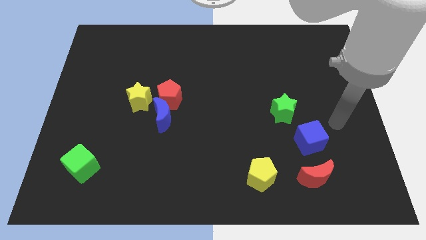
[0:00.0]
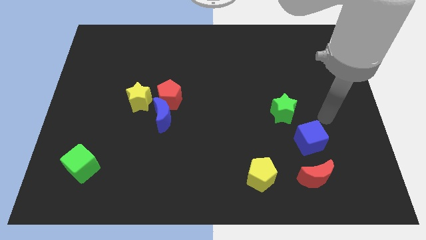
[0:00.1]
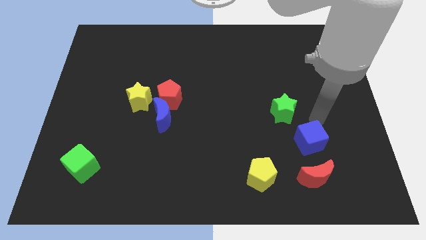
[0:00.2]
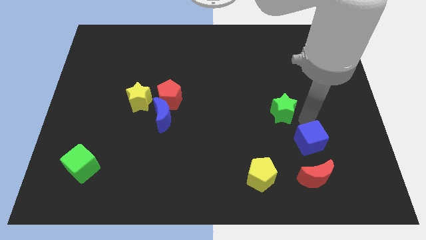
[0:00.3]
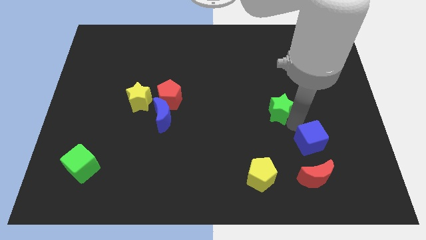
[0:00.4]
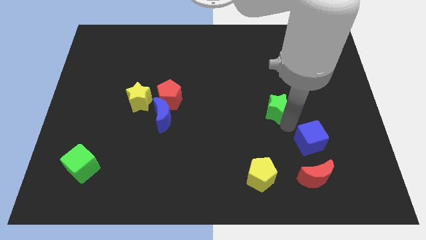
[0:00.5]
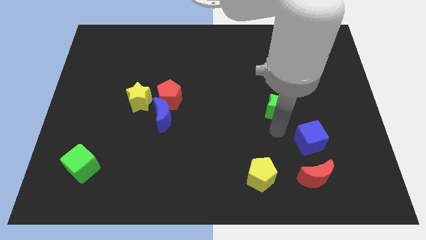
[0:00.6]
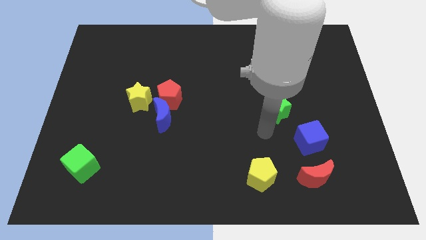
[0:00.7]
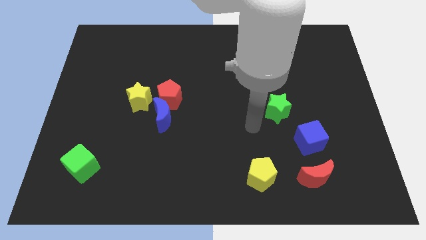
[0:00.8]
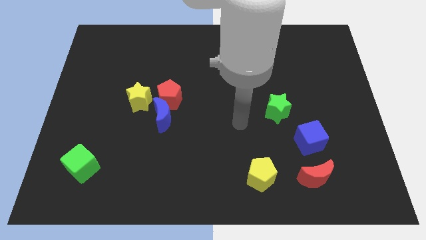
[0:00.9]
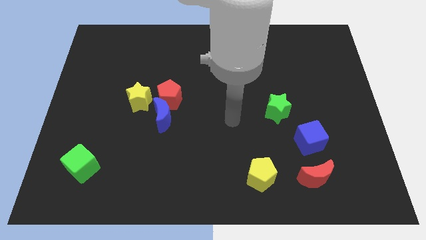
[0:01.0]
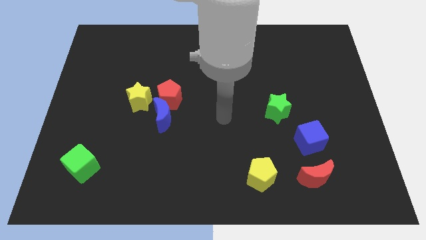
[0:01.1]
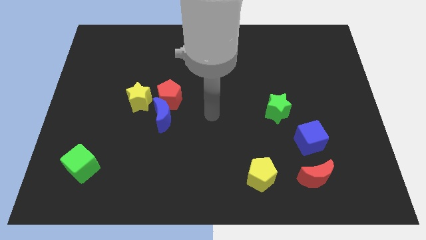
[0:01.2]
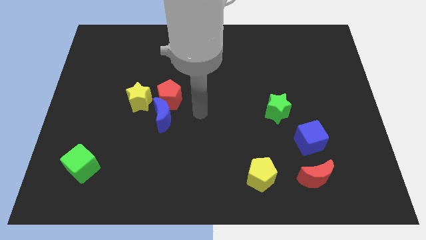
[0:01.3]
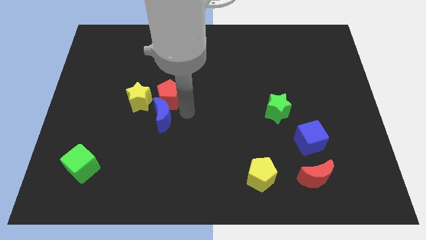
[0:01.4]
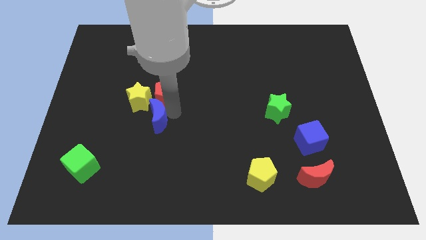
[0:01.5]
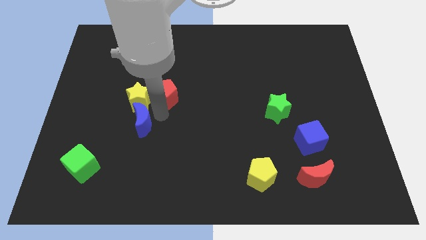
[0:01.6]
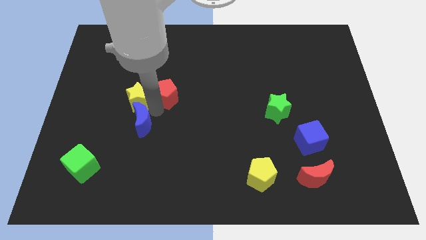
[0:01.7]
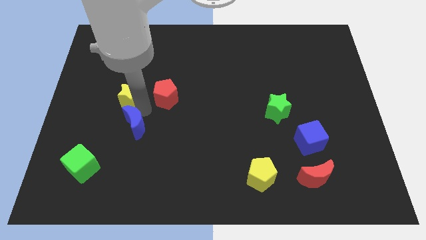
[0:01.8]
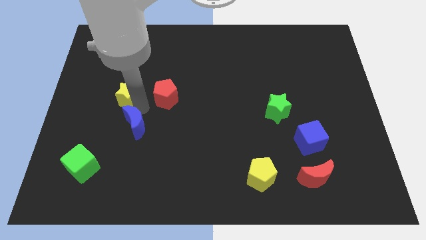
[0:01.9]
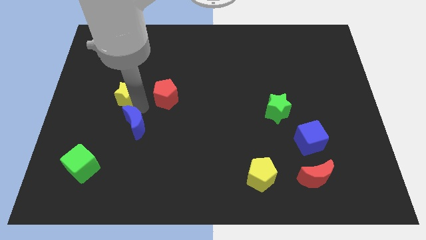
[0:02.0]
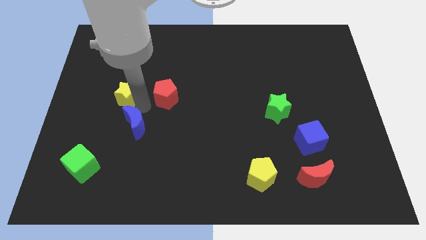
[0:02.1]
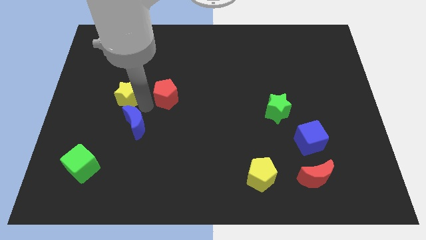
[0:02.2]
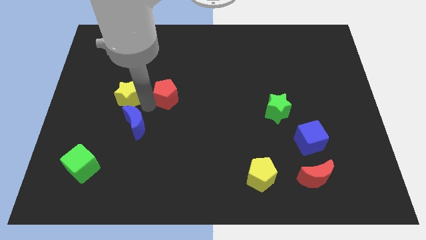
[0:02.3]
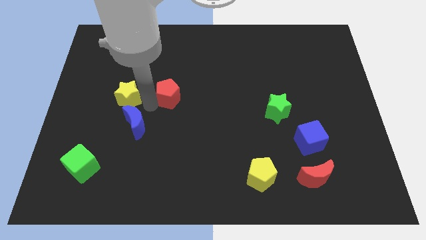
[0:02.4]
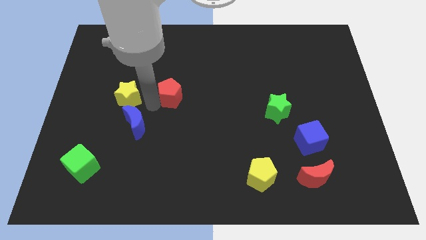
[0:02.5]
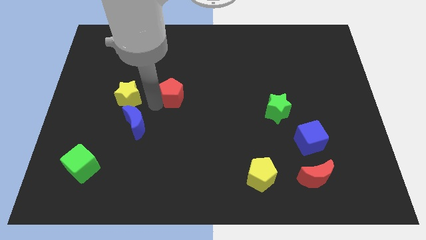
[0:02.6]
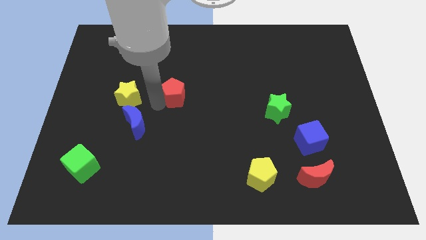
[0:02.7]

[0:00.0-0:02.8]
move the red pentagon away from the blue moon and yellow star

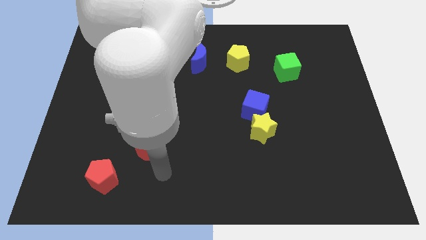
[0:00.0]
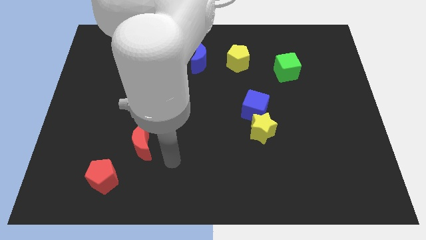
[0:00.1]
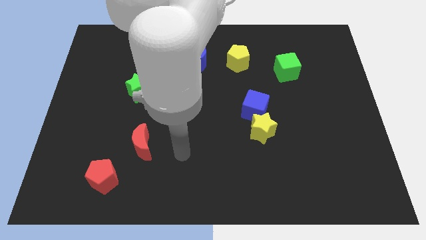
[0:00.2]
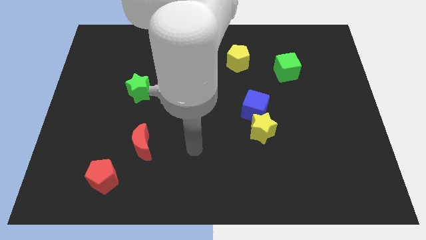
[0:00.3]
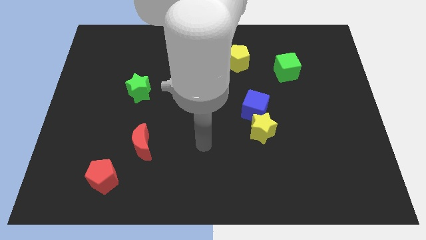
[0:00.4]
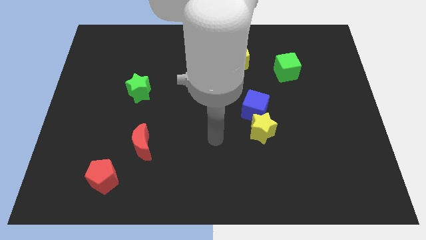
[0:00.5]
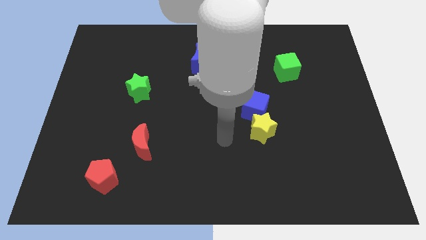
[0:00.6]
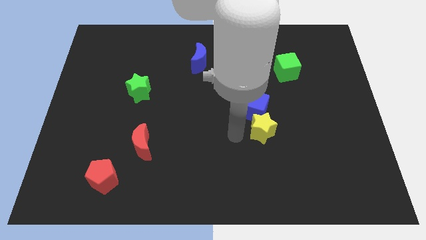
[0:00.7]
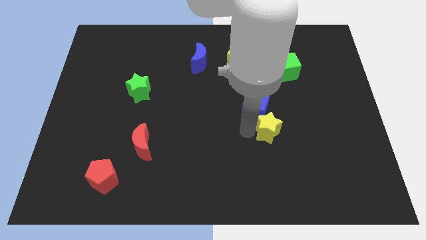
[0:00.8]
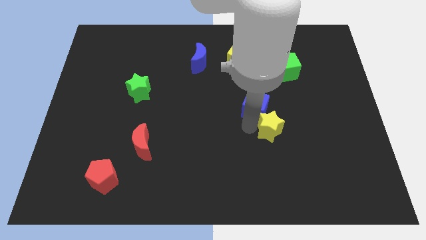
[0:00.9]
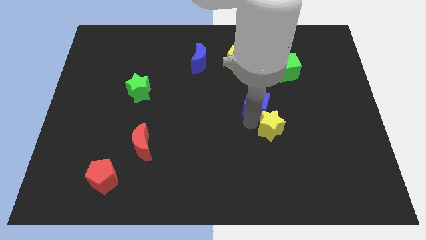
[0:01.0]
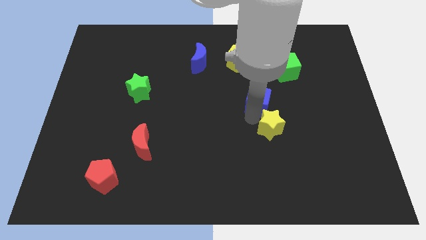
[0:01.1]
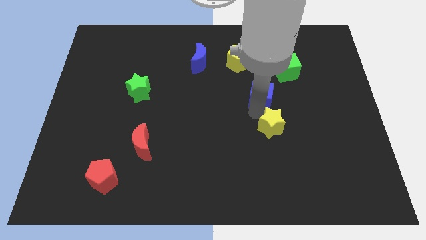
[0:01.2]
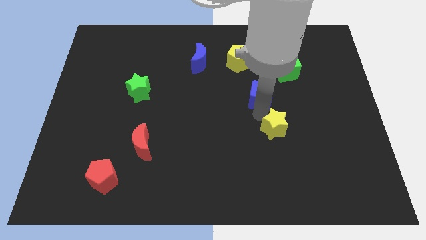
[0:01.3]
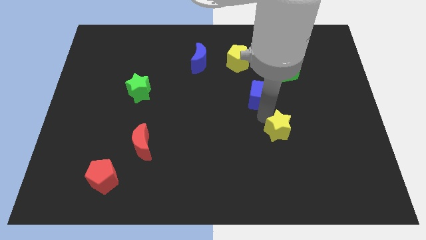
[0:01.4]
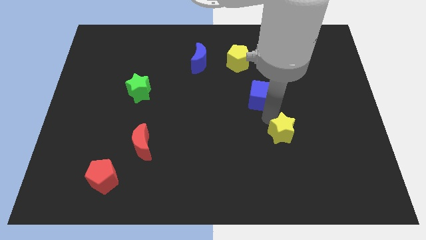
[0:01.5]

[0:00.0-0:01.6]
move the blue cube away from the yellow star

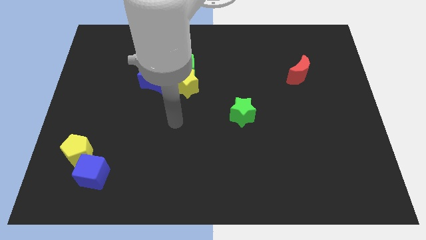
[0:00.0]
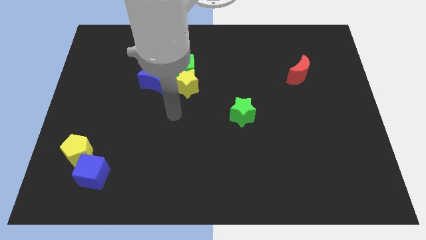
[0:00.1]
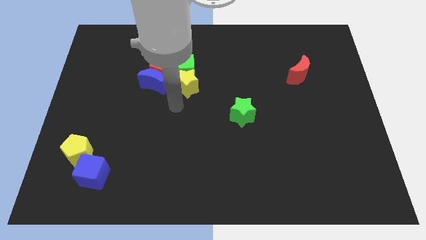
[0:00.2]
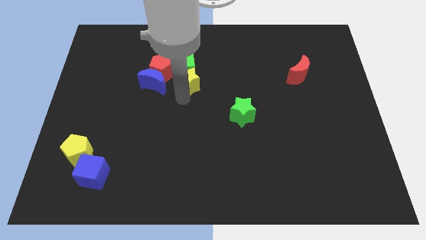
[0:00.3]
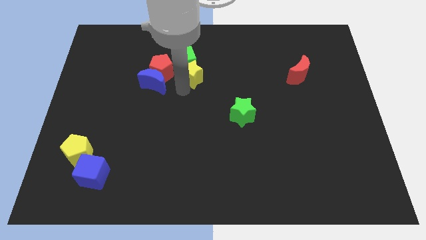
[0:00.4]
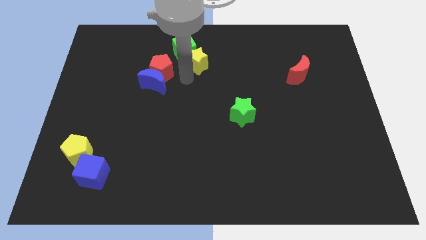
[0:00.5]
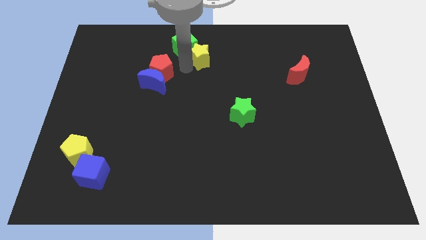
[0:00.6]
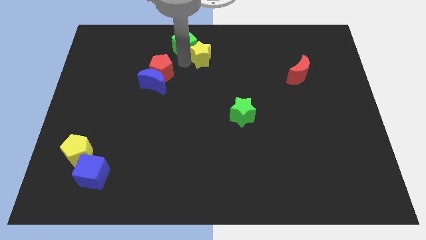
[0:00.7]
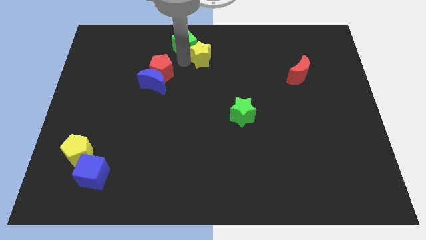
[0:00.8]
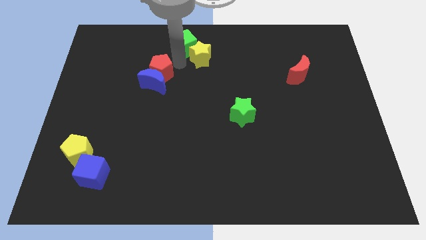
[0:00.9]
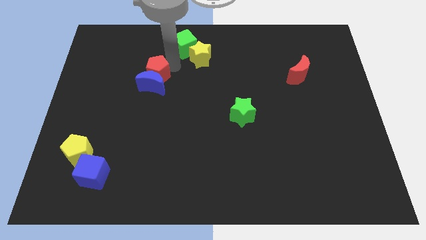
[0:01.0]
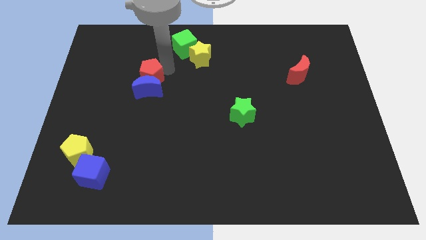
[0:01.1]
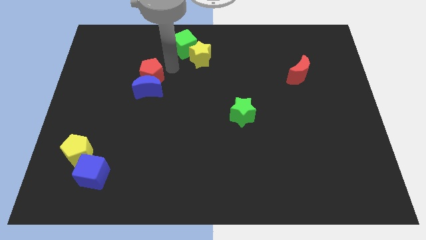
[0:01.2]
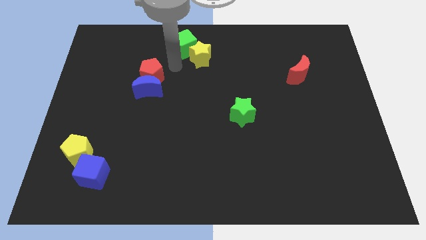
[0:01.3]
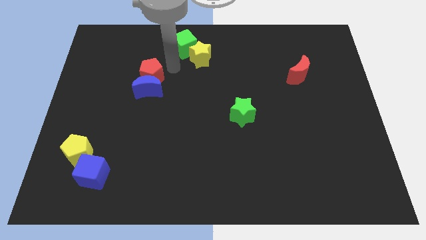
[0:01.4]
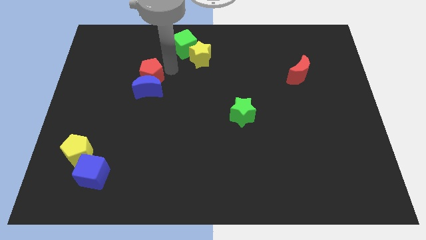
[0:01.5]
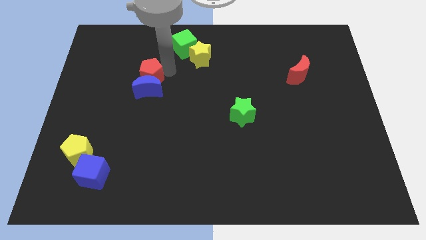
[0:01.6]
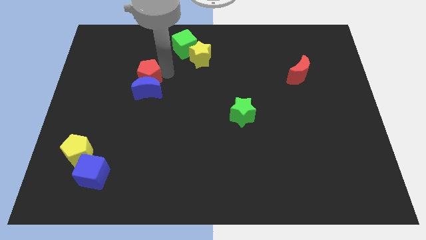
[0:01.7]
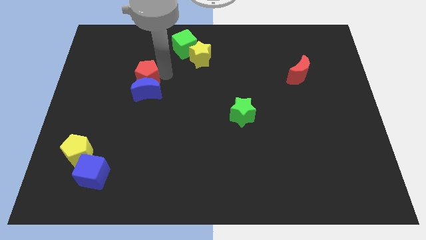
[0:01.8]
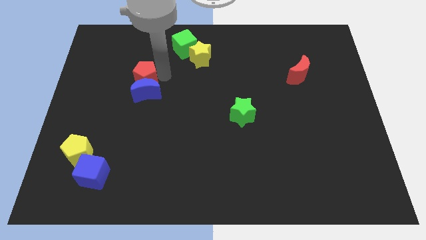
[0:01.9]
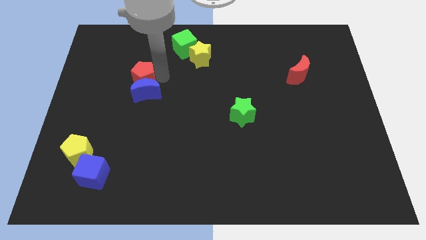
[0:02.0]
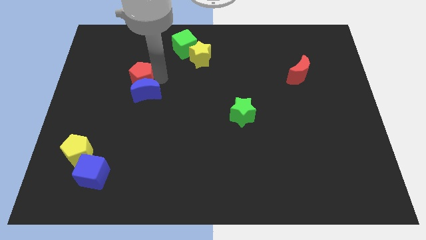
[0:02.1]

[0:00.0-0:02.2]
move the red pentagon away from the group

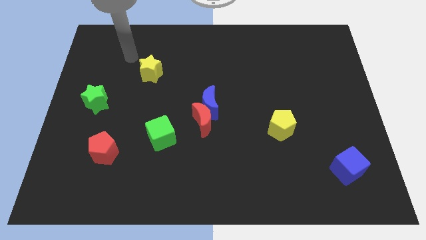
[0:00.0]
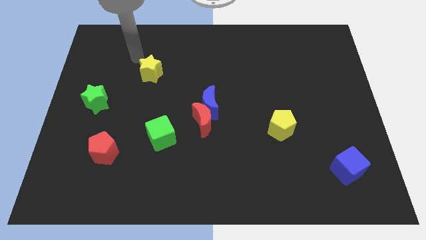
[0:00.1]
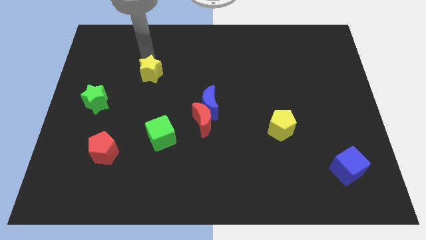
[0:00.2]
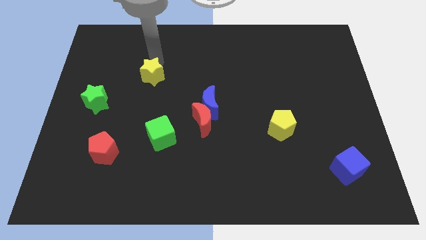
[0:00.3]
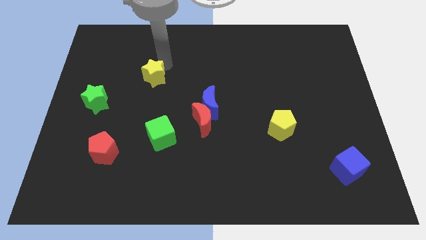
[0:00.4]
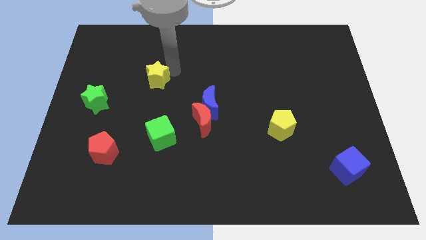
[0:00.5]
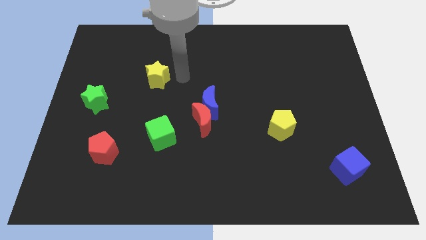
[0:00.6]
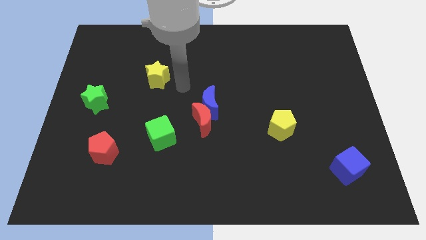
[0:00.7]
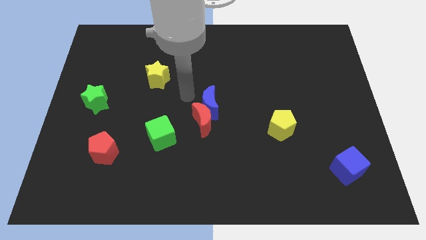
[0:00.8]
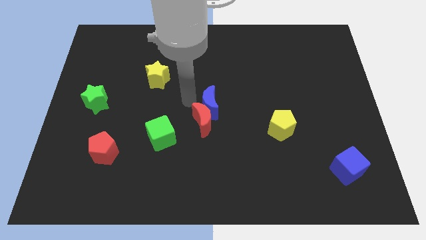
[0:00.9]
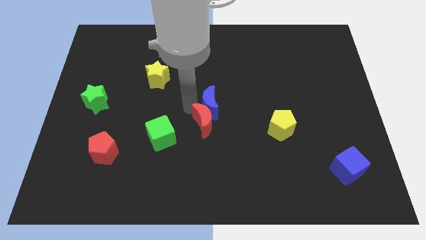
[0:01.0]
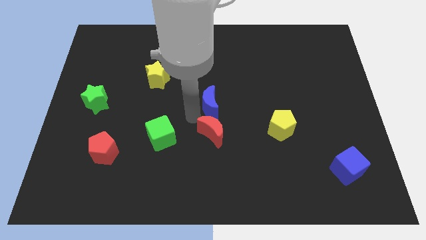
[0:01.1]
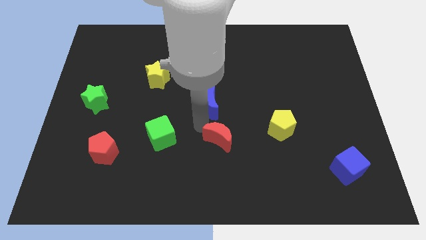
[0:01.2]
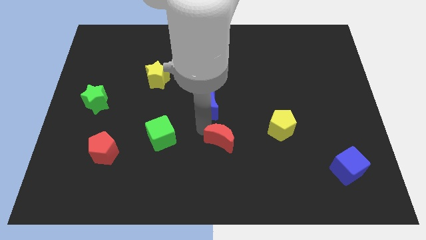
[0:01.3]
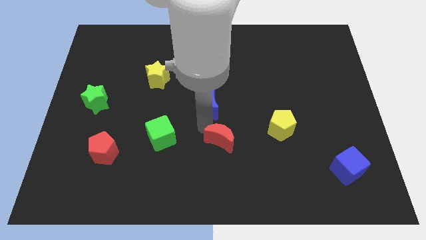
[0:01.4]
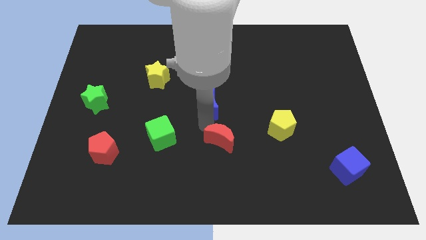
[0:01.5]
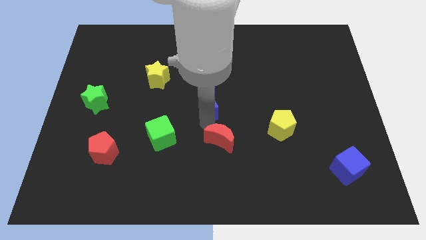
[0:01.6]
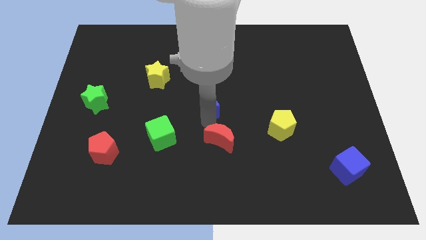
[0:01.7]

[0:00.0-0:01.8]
move the blue moon away from the red moon

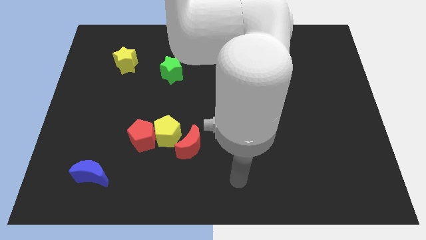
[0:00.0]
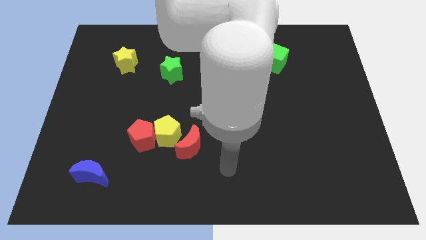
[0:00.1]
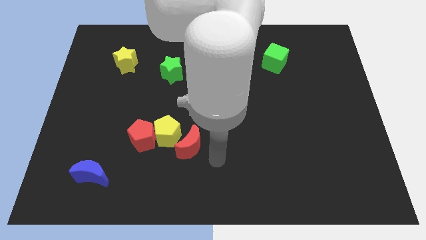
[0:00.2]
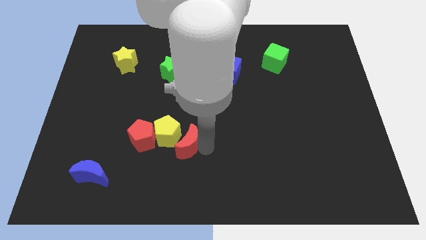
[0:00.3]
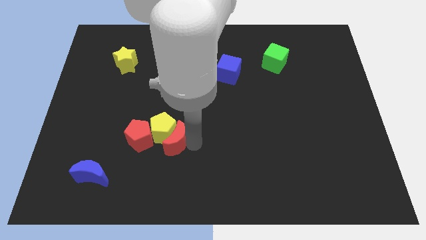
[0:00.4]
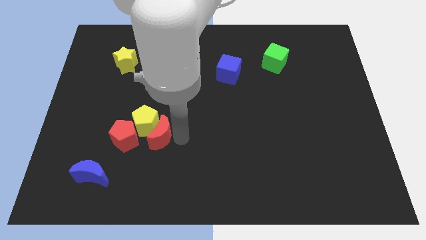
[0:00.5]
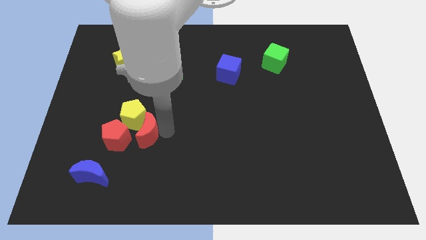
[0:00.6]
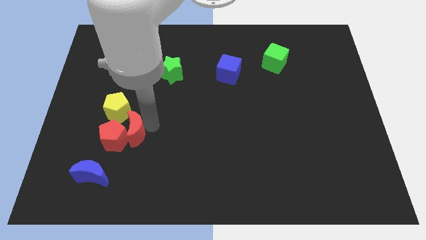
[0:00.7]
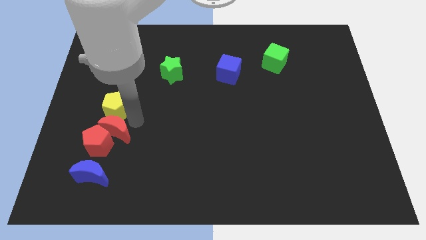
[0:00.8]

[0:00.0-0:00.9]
separate the red pentagon from the yellow pentagon
